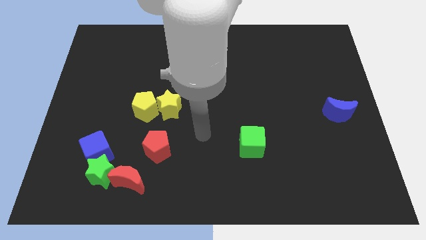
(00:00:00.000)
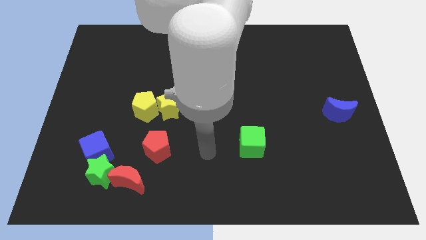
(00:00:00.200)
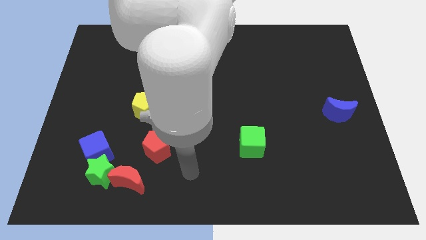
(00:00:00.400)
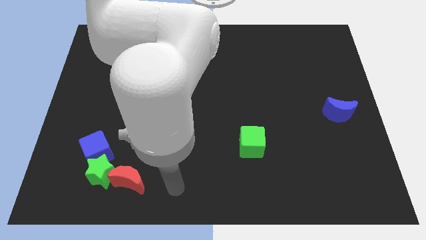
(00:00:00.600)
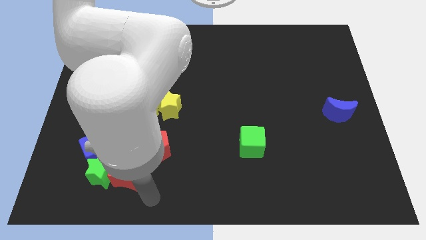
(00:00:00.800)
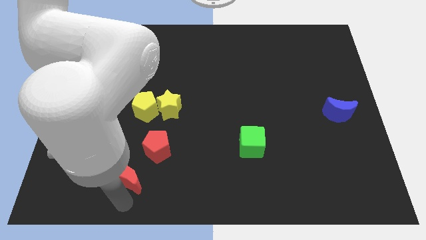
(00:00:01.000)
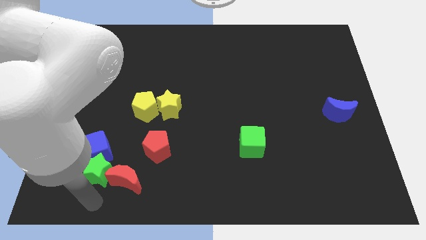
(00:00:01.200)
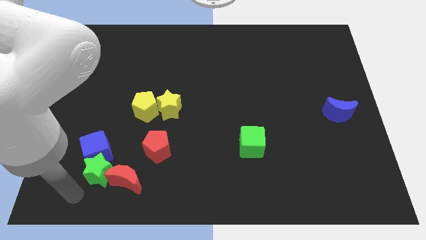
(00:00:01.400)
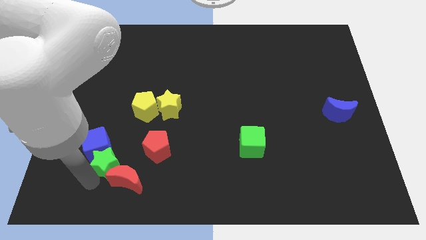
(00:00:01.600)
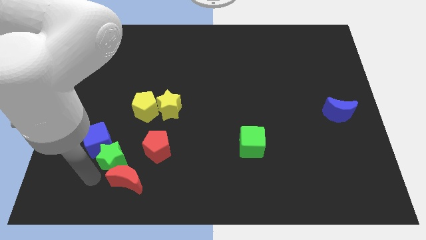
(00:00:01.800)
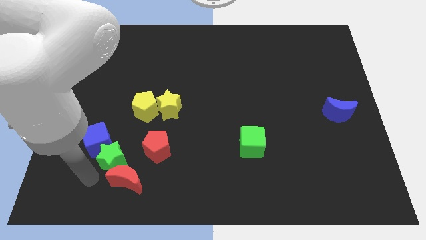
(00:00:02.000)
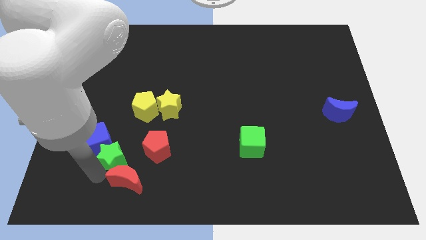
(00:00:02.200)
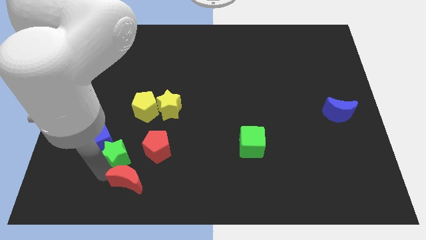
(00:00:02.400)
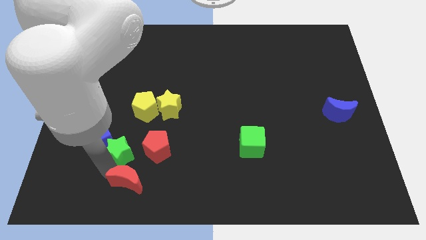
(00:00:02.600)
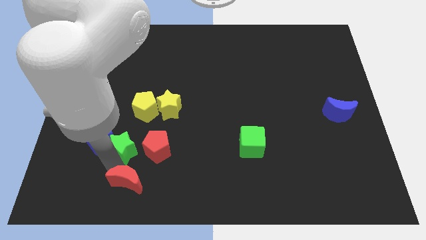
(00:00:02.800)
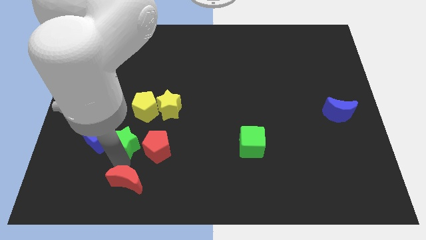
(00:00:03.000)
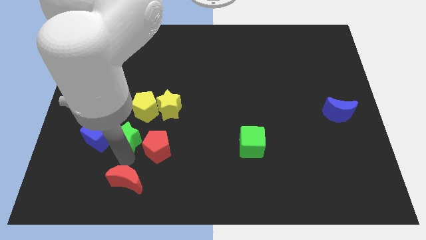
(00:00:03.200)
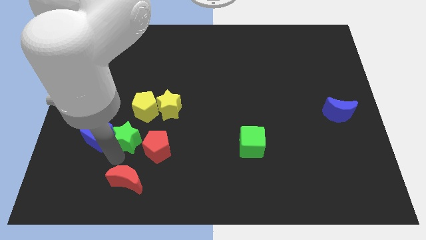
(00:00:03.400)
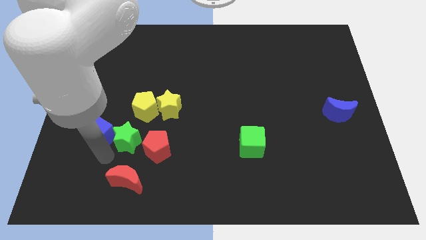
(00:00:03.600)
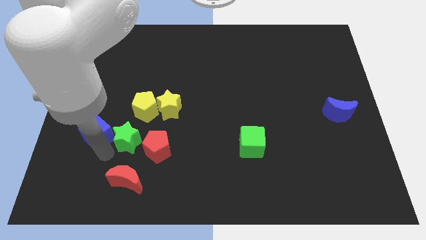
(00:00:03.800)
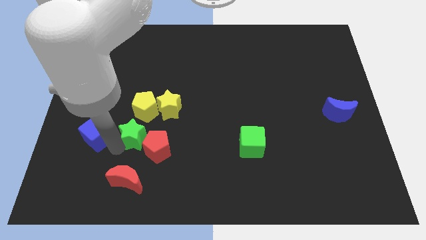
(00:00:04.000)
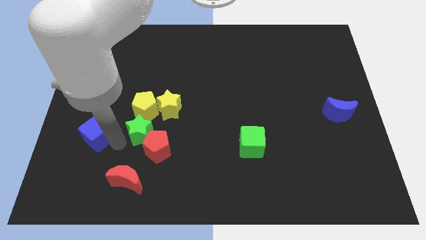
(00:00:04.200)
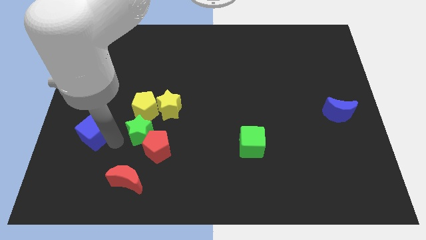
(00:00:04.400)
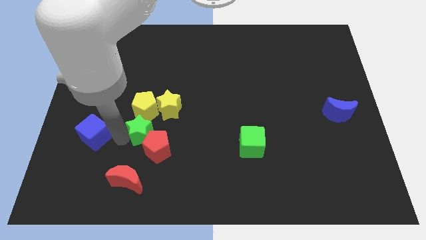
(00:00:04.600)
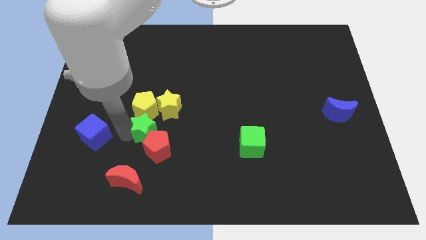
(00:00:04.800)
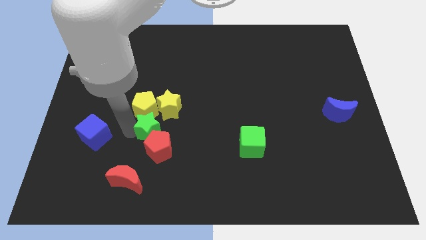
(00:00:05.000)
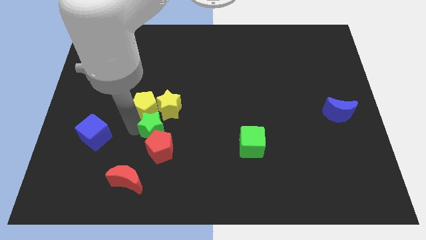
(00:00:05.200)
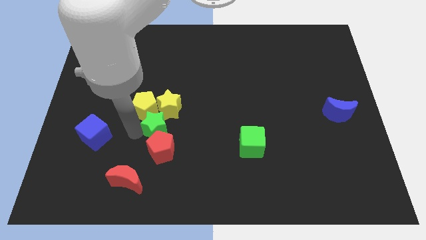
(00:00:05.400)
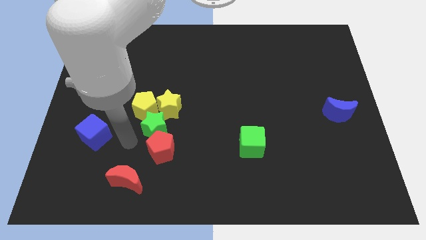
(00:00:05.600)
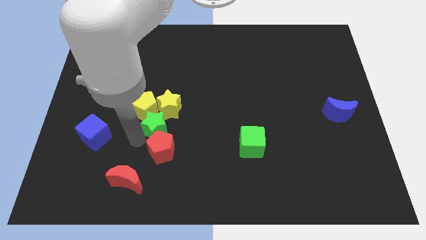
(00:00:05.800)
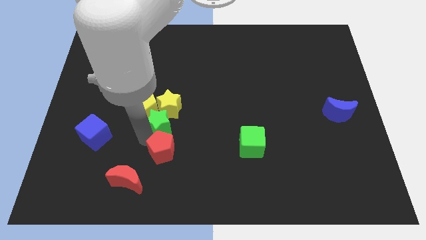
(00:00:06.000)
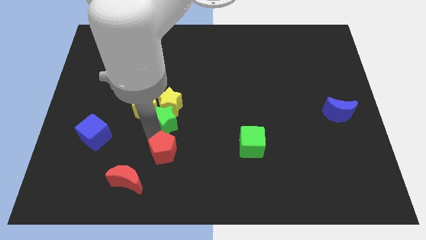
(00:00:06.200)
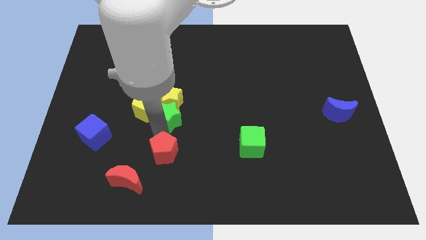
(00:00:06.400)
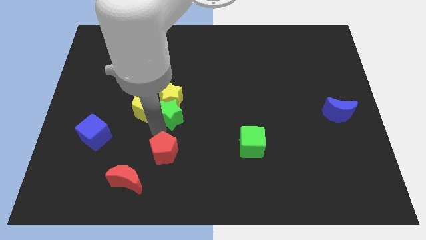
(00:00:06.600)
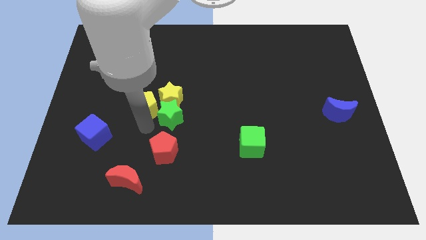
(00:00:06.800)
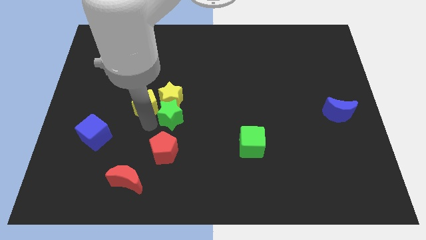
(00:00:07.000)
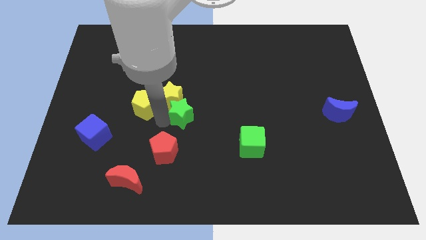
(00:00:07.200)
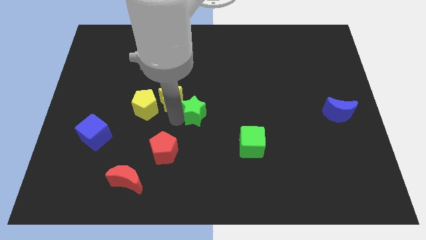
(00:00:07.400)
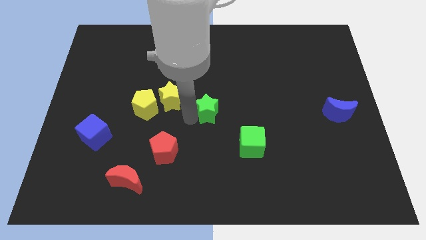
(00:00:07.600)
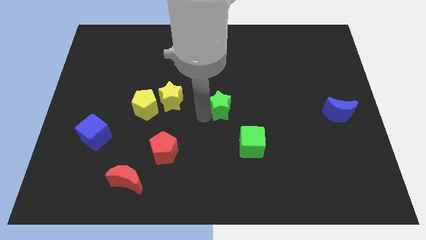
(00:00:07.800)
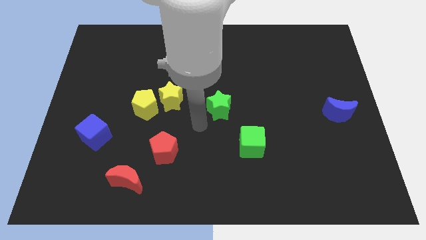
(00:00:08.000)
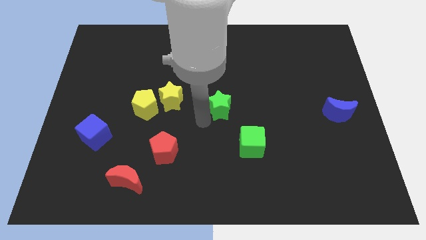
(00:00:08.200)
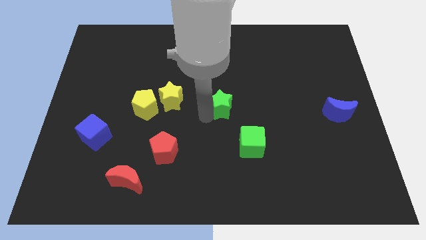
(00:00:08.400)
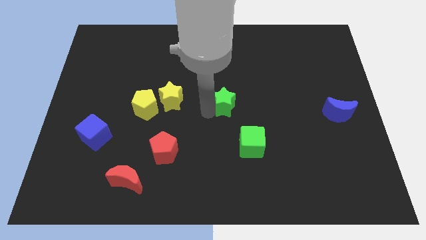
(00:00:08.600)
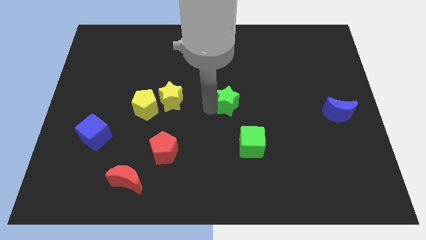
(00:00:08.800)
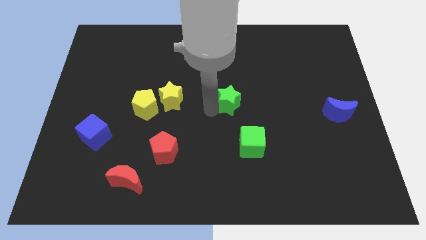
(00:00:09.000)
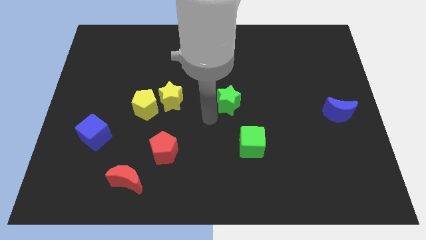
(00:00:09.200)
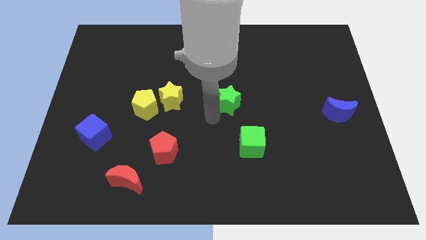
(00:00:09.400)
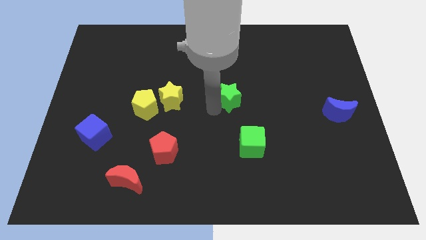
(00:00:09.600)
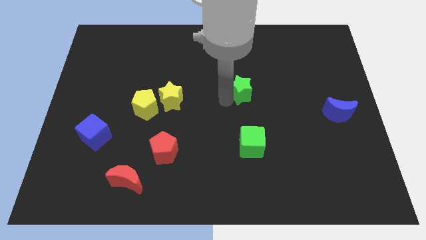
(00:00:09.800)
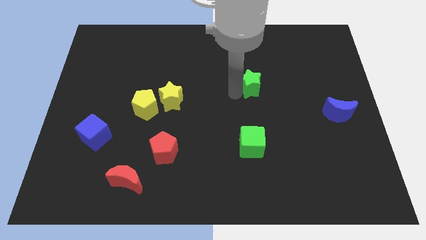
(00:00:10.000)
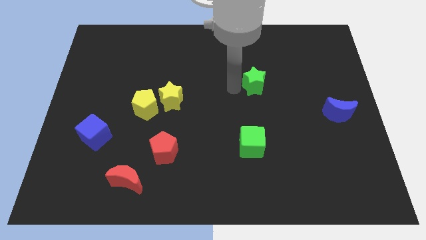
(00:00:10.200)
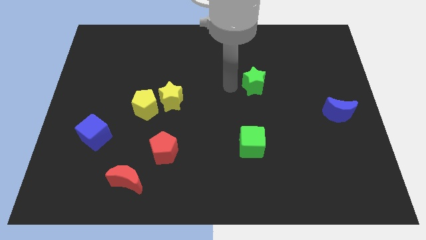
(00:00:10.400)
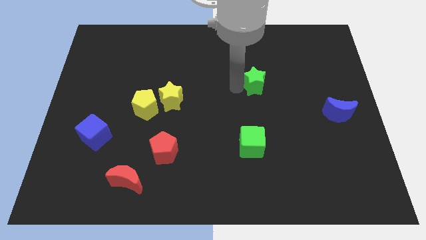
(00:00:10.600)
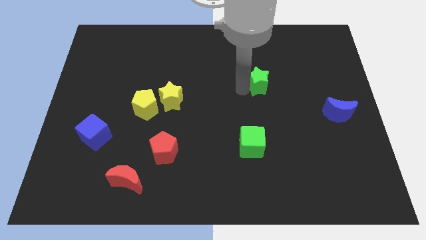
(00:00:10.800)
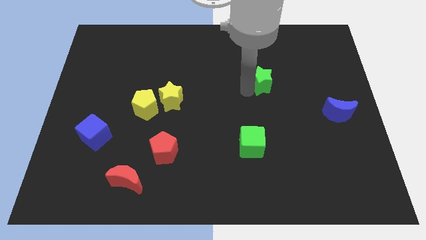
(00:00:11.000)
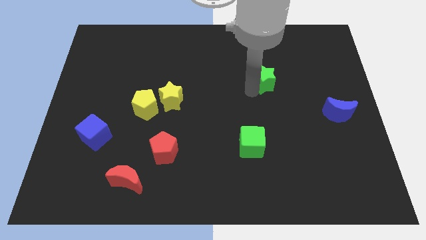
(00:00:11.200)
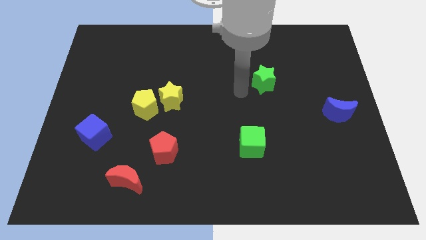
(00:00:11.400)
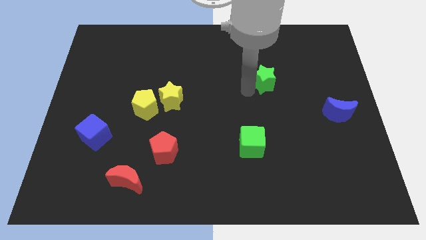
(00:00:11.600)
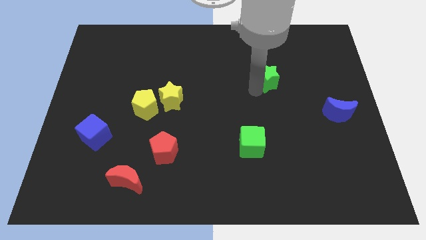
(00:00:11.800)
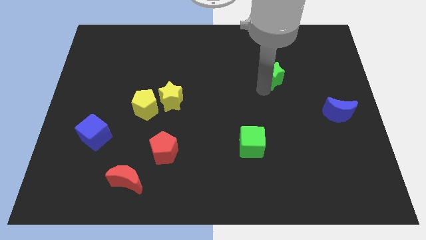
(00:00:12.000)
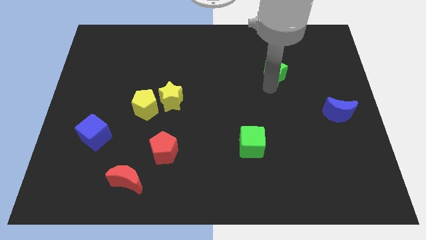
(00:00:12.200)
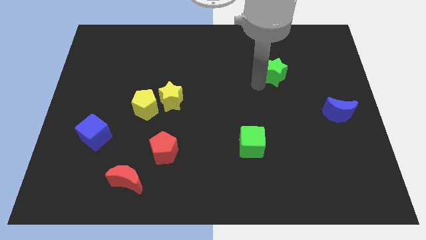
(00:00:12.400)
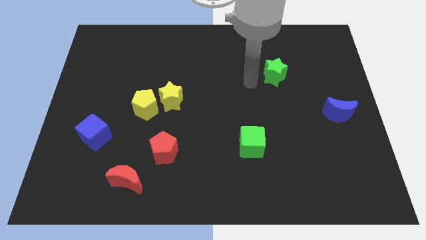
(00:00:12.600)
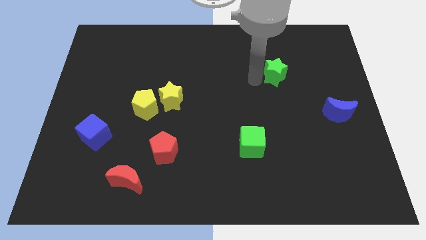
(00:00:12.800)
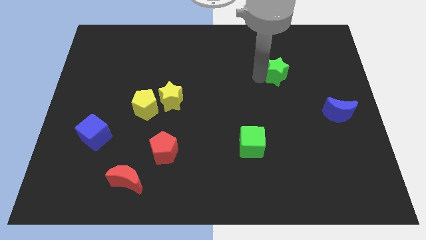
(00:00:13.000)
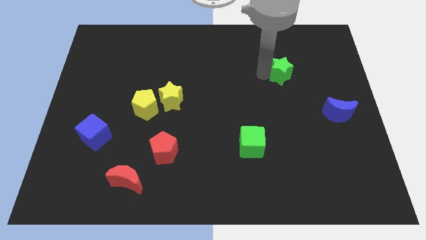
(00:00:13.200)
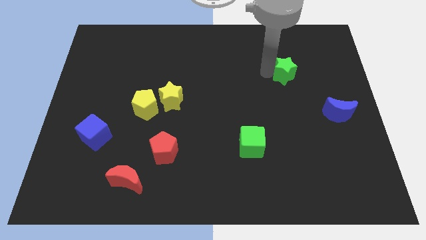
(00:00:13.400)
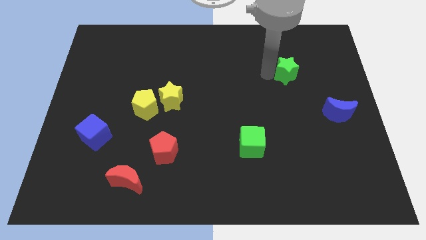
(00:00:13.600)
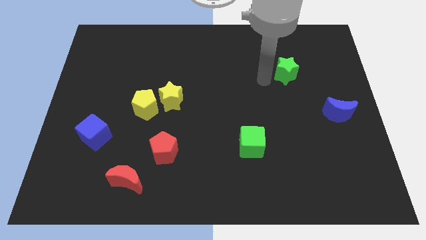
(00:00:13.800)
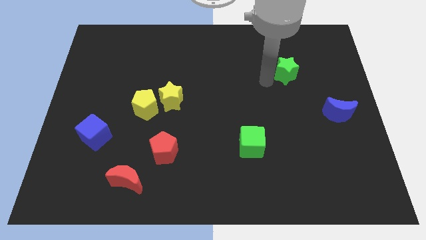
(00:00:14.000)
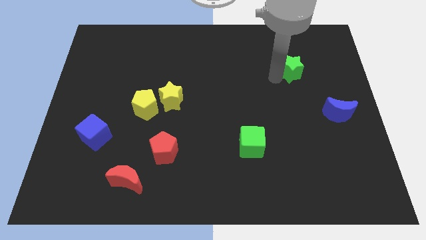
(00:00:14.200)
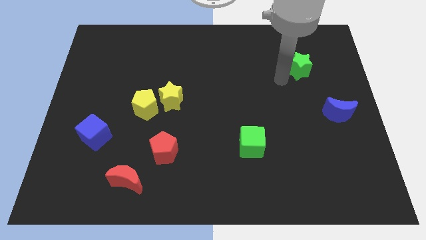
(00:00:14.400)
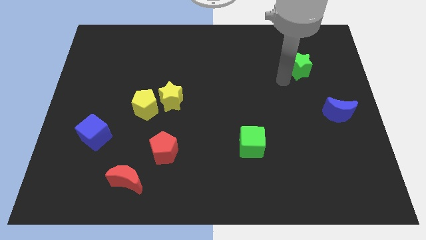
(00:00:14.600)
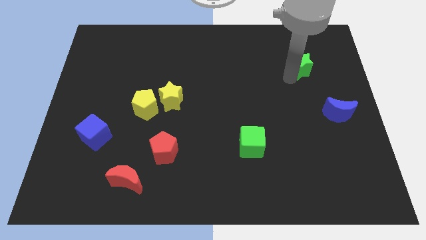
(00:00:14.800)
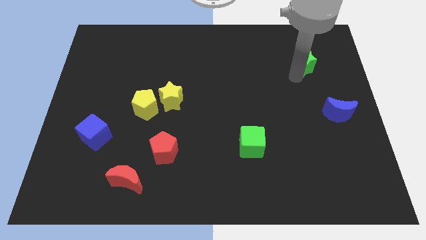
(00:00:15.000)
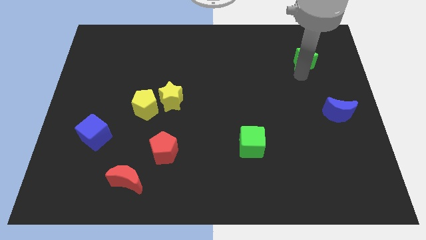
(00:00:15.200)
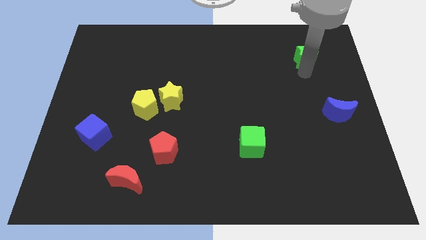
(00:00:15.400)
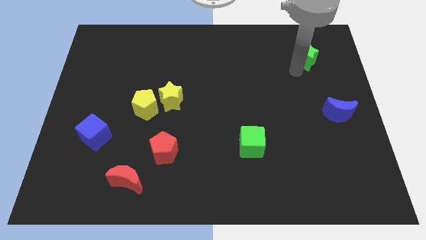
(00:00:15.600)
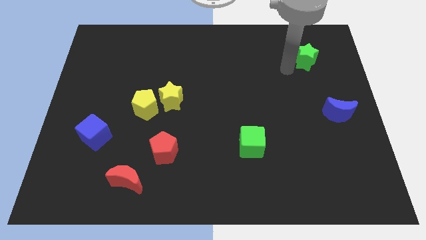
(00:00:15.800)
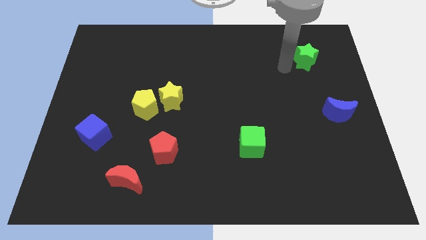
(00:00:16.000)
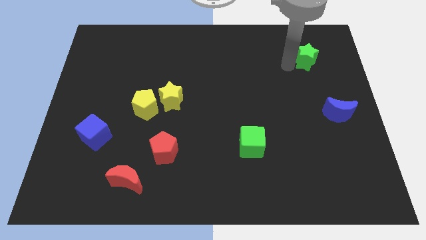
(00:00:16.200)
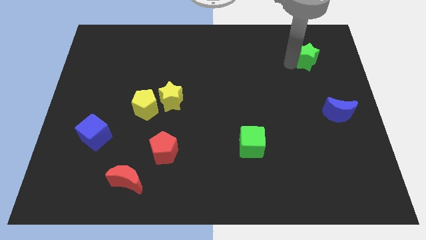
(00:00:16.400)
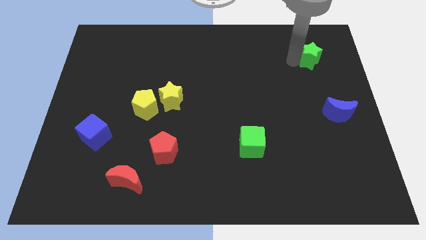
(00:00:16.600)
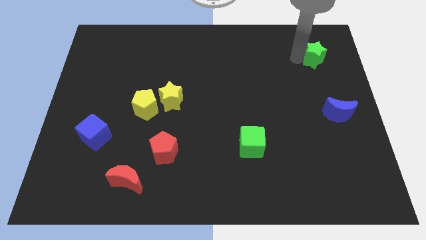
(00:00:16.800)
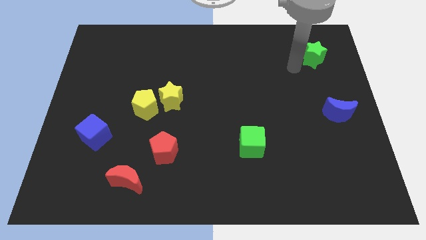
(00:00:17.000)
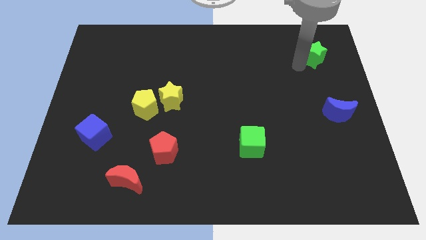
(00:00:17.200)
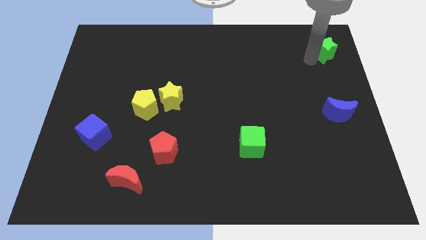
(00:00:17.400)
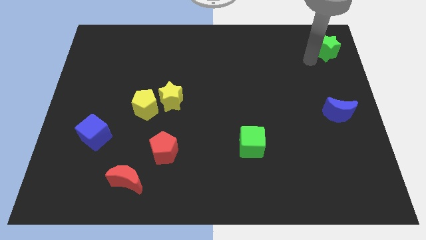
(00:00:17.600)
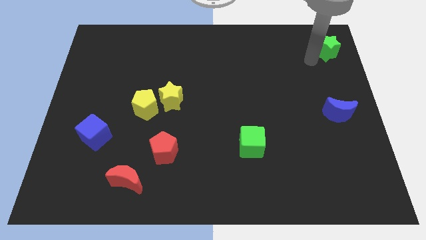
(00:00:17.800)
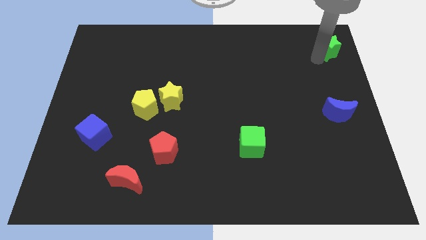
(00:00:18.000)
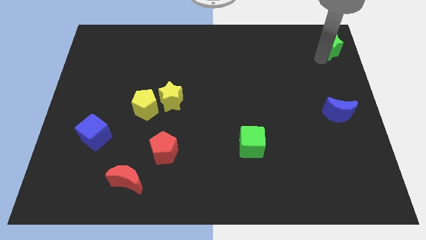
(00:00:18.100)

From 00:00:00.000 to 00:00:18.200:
push the green star to the top right
